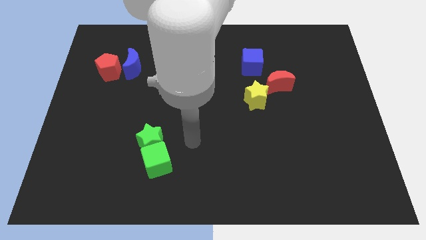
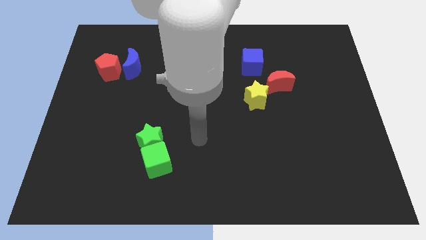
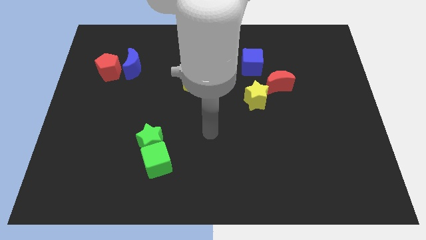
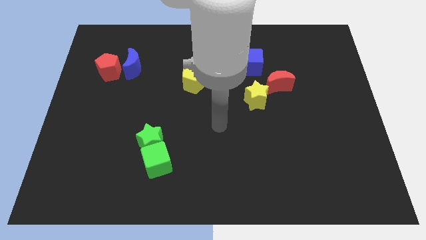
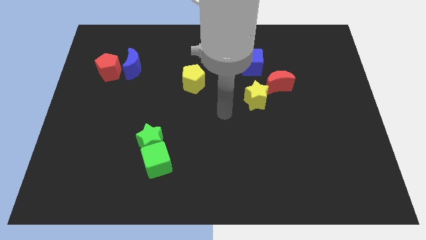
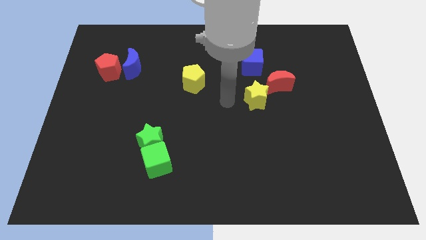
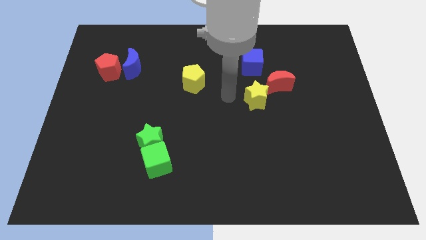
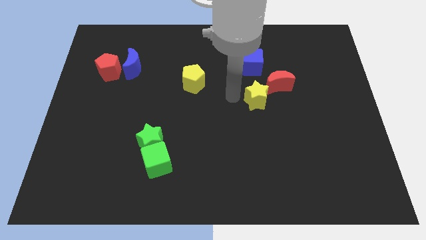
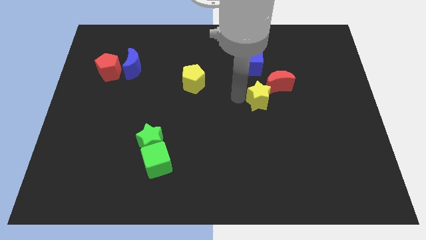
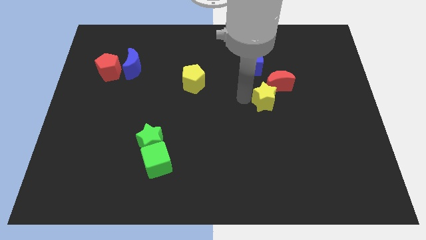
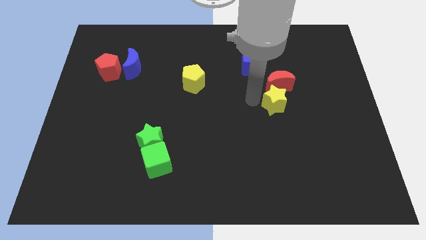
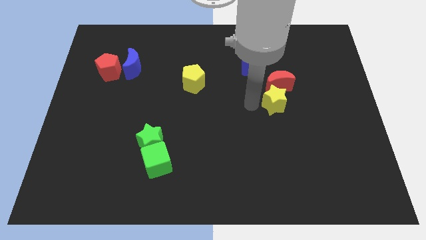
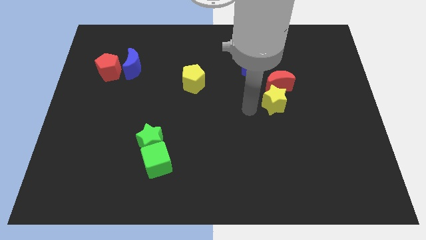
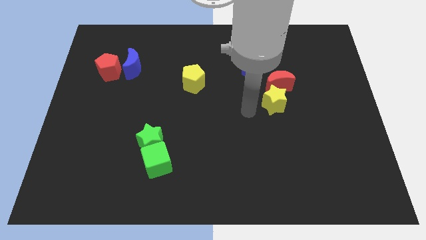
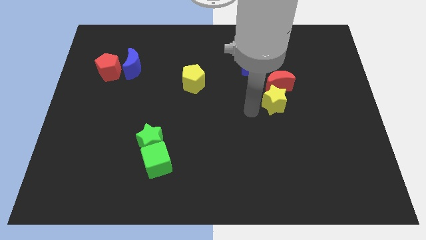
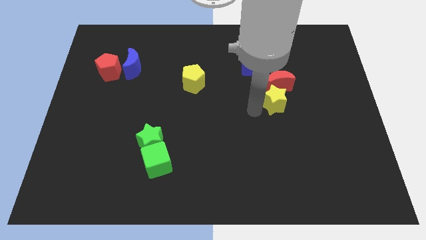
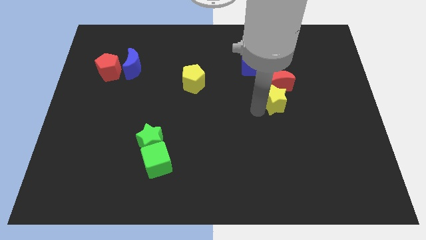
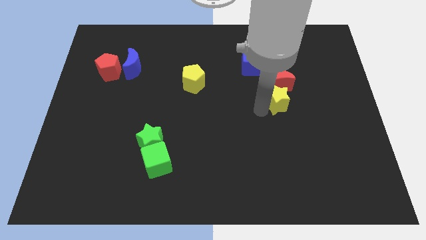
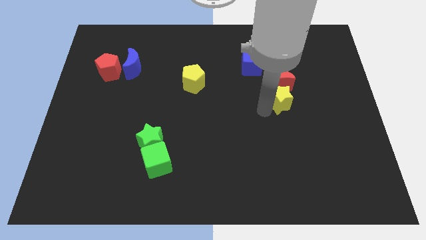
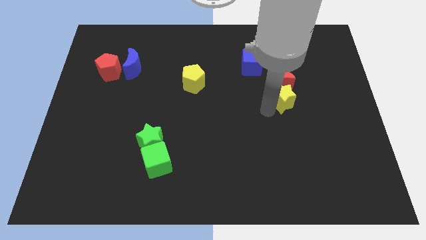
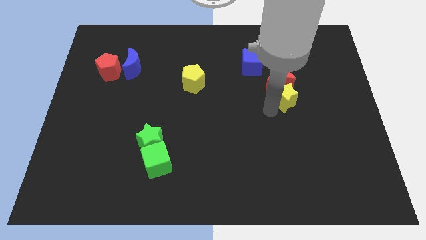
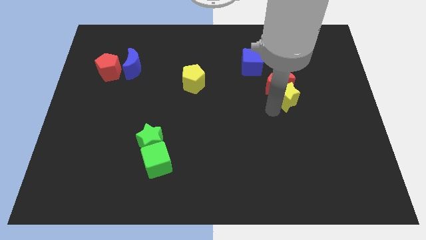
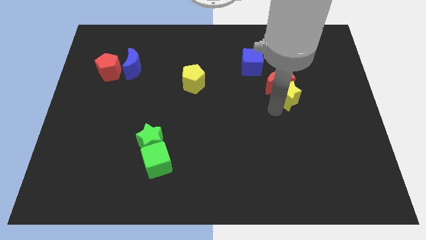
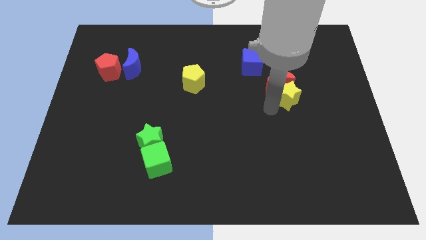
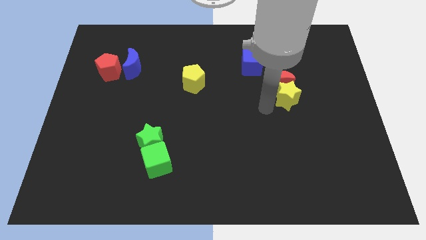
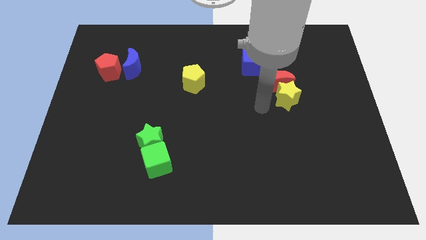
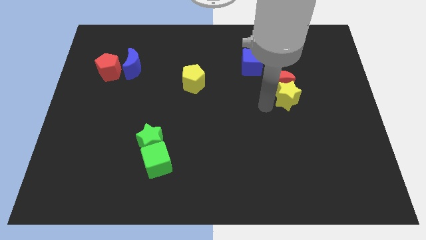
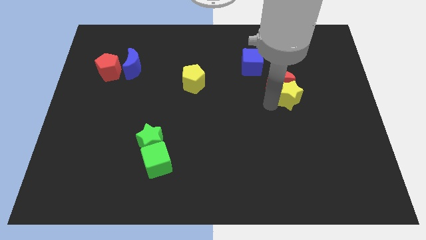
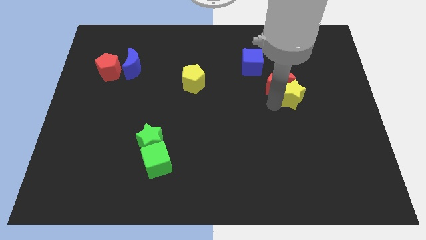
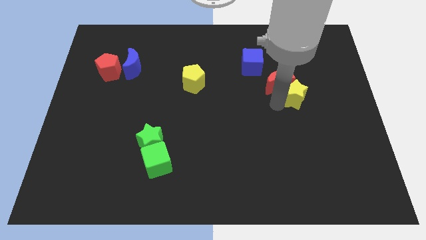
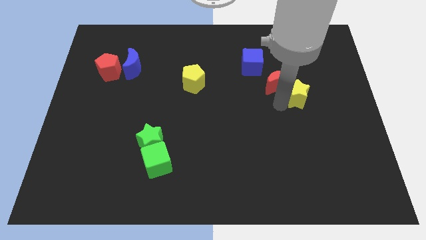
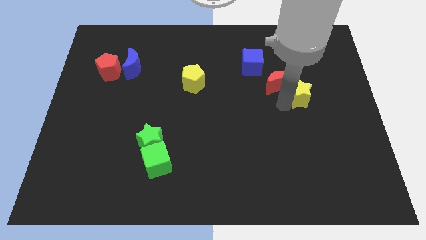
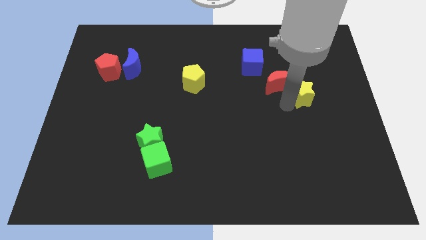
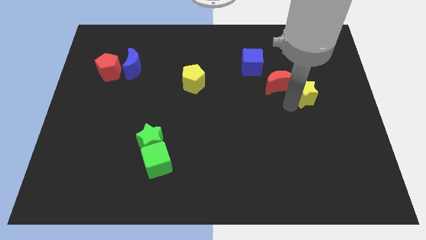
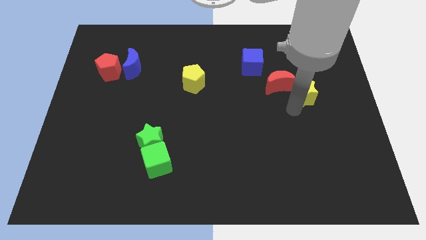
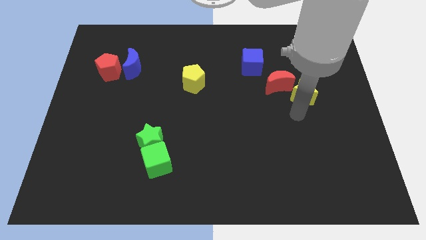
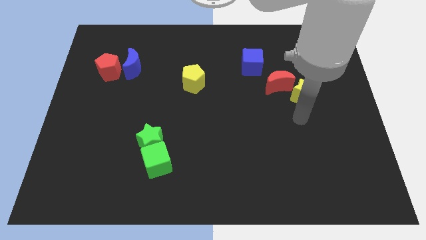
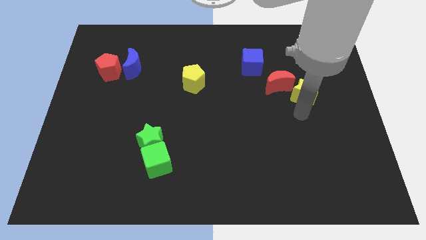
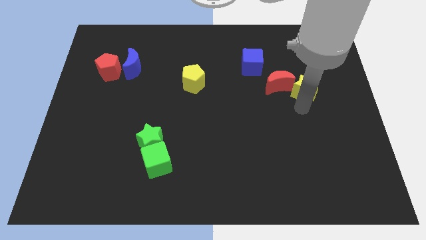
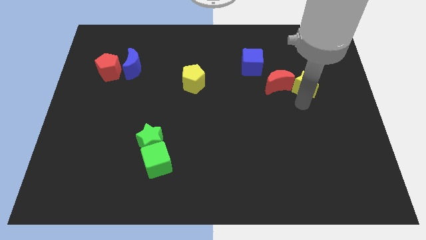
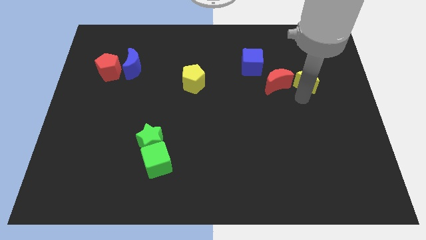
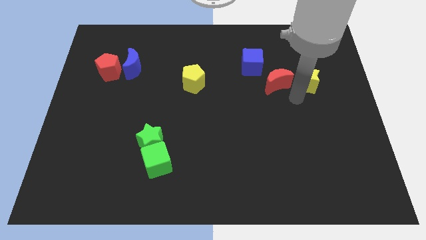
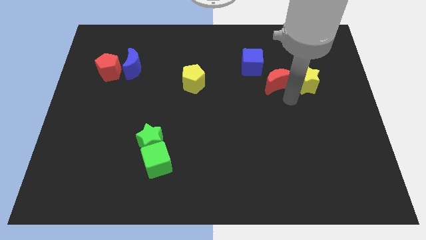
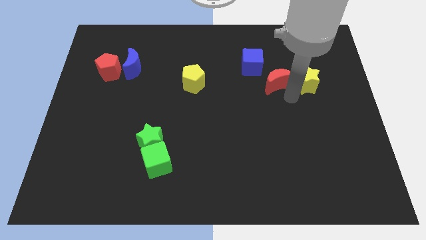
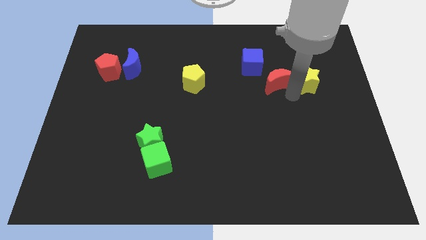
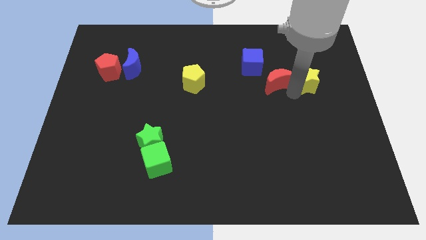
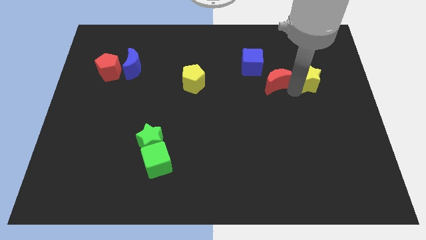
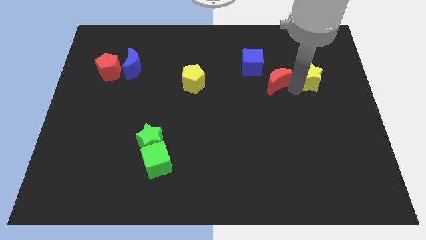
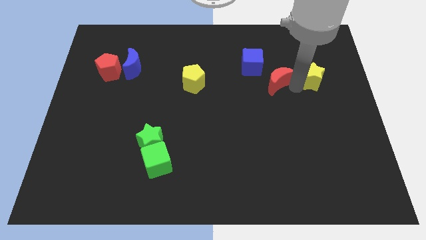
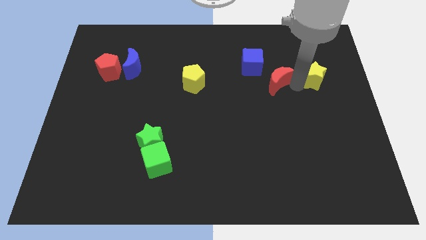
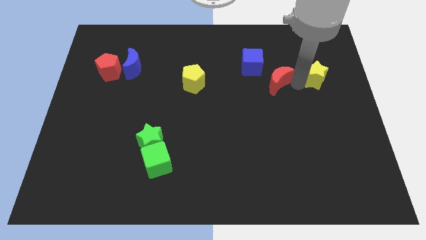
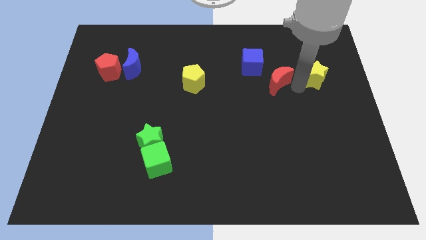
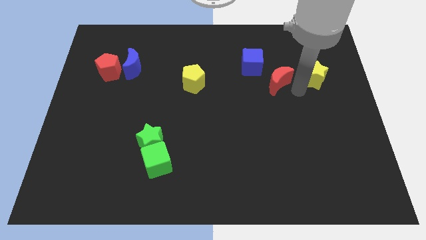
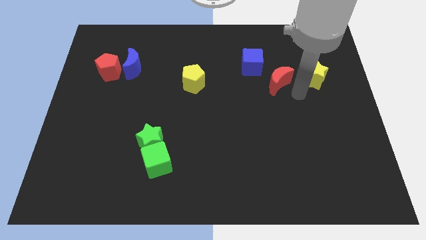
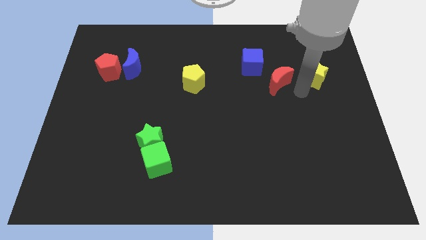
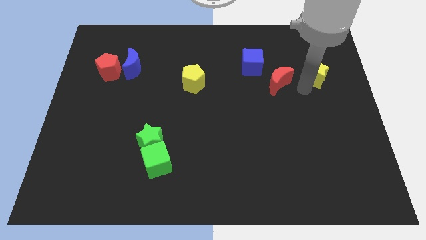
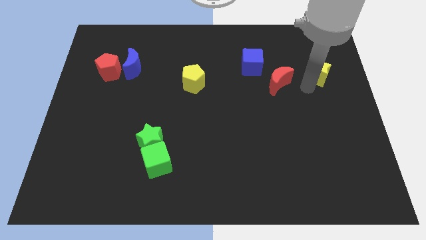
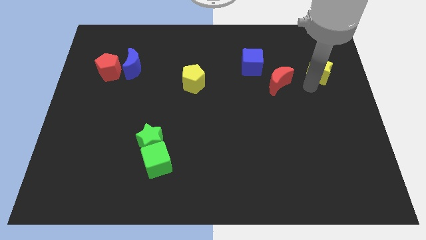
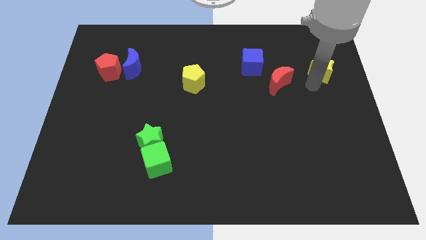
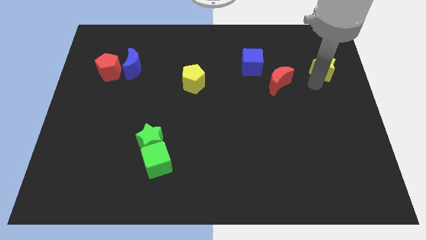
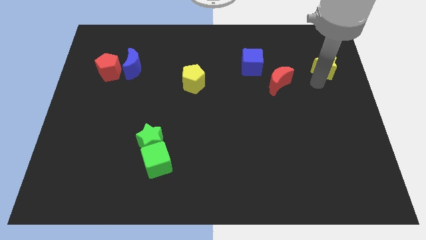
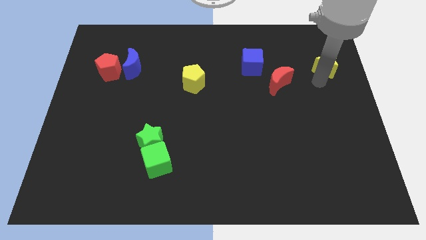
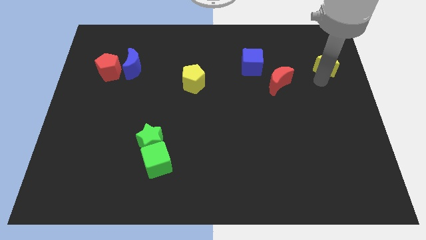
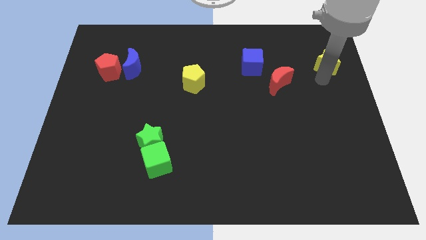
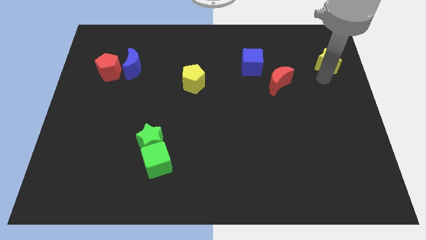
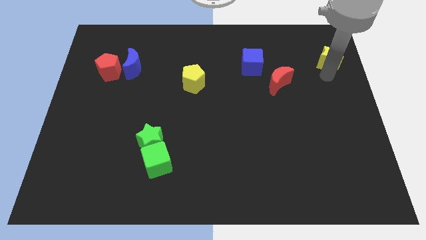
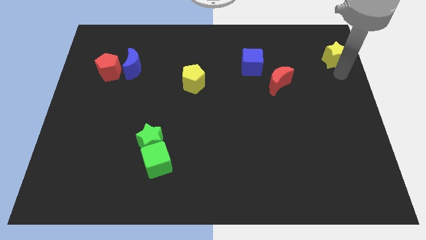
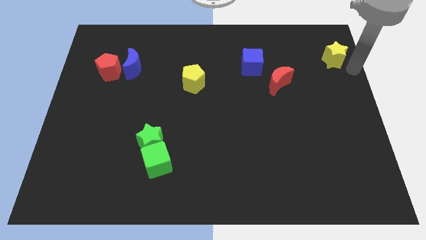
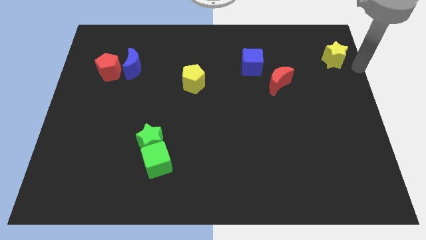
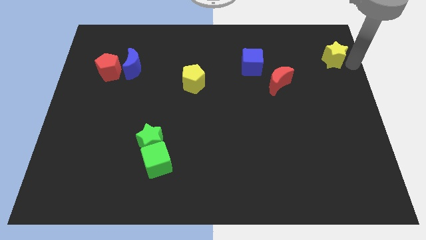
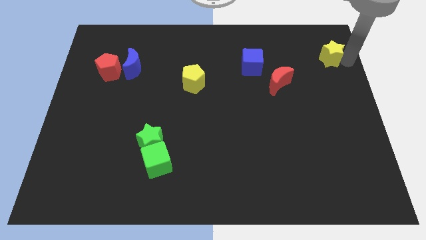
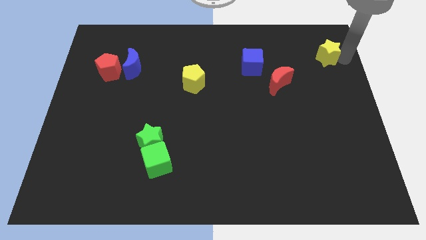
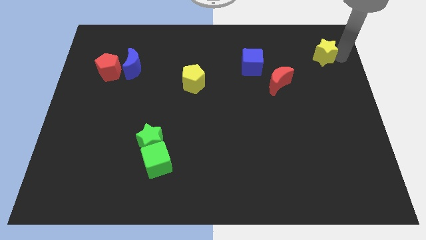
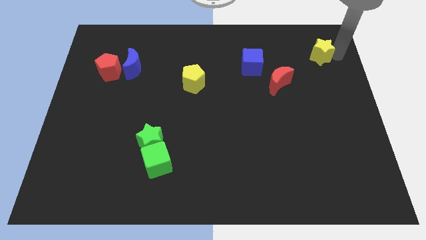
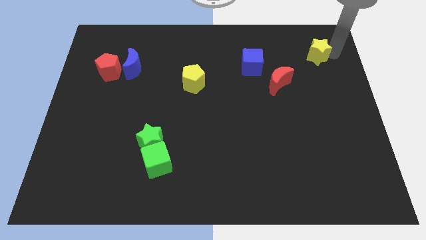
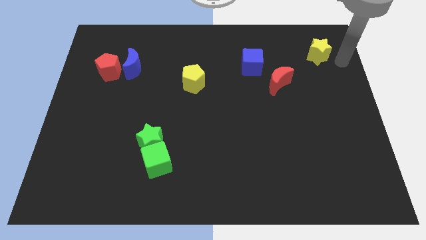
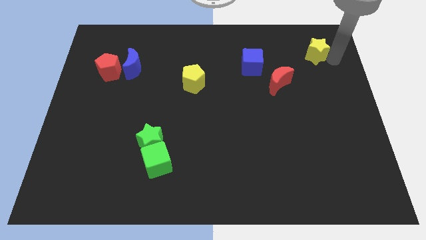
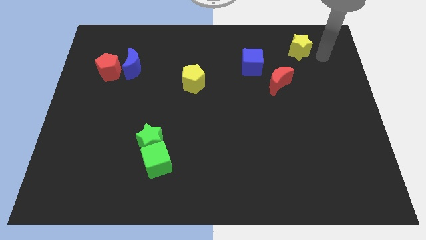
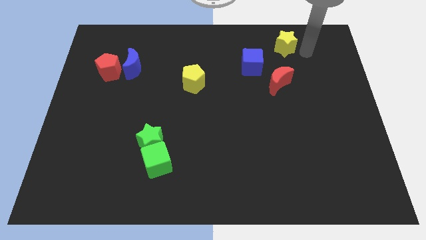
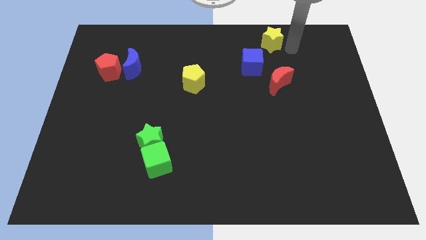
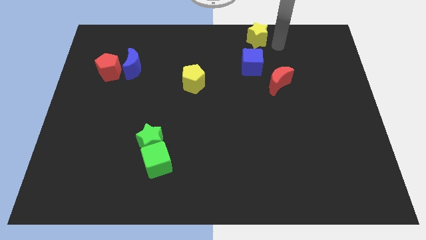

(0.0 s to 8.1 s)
slide the yellow star to the towards your base
